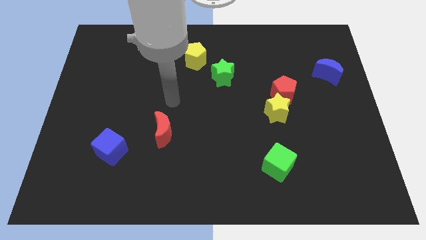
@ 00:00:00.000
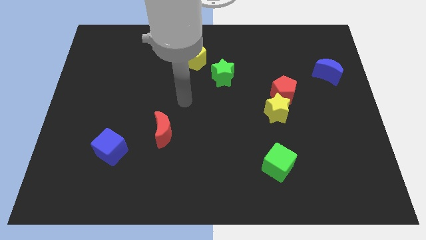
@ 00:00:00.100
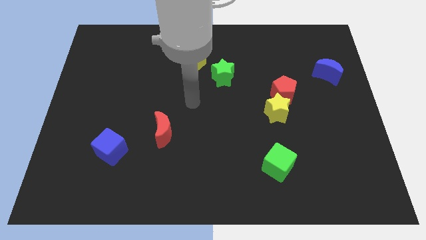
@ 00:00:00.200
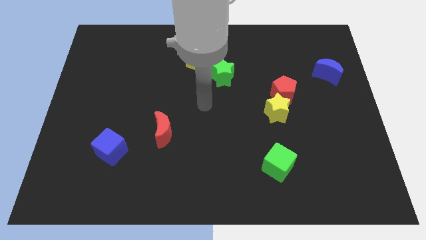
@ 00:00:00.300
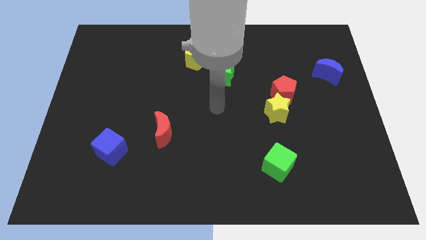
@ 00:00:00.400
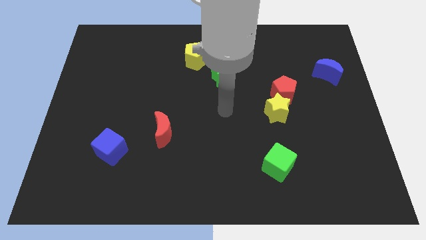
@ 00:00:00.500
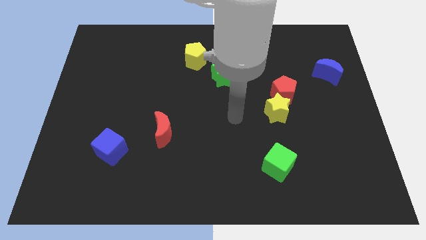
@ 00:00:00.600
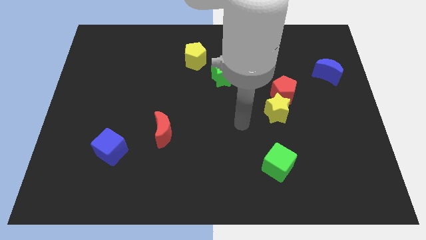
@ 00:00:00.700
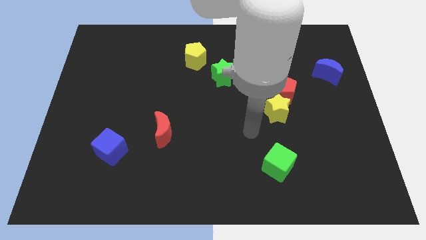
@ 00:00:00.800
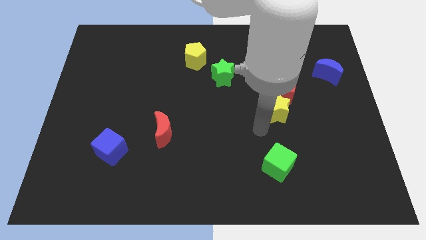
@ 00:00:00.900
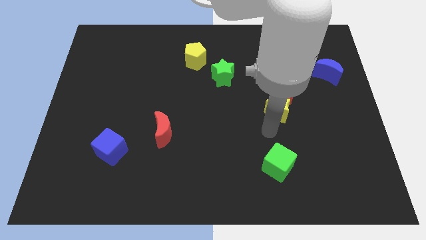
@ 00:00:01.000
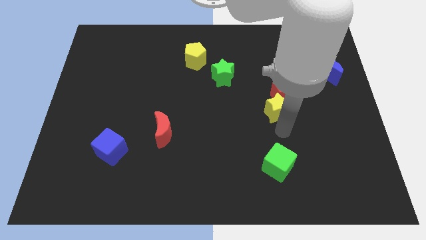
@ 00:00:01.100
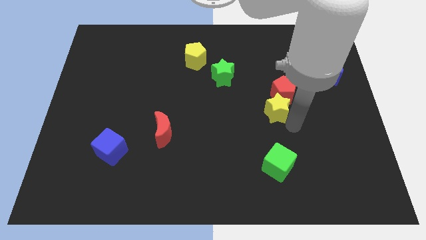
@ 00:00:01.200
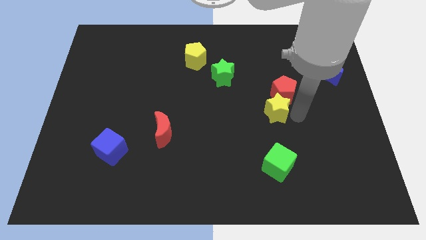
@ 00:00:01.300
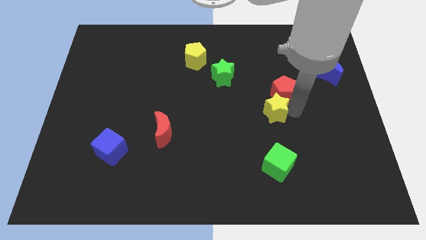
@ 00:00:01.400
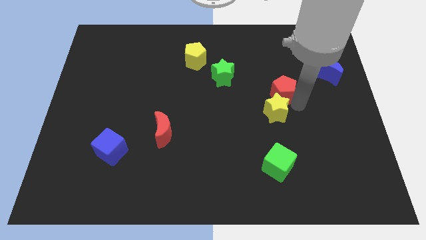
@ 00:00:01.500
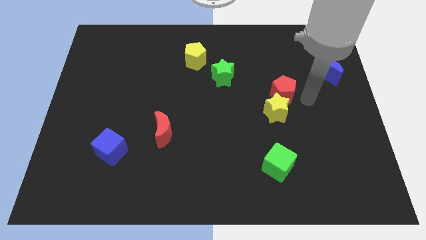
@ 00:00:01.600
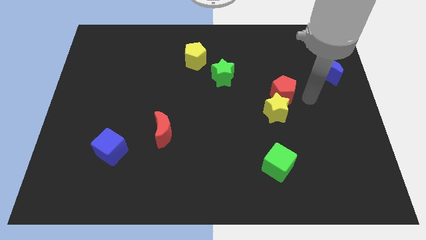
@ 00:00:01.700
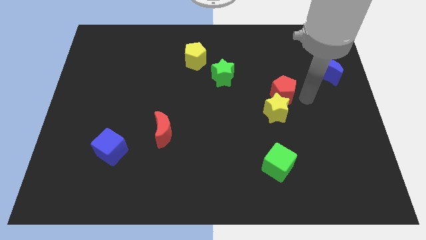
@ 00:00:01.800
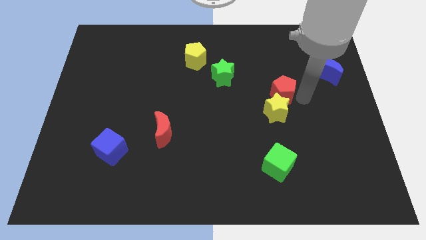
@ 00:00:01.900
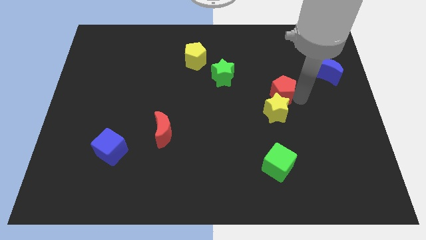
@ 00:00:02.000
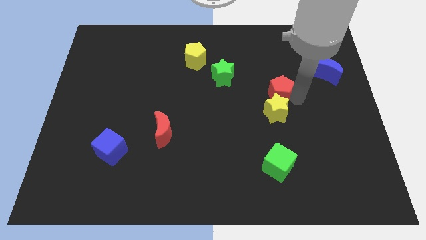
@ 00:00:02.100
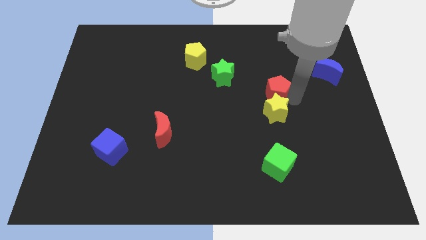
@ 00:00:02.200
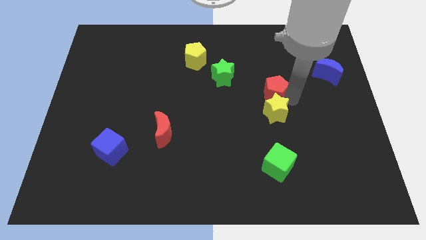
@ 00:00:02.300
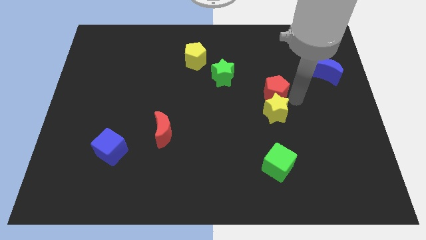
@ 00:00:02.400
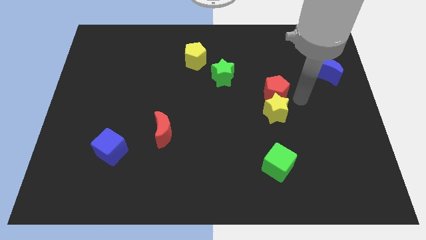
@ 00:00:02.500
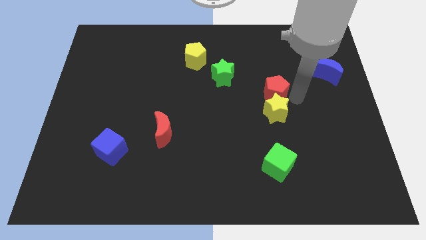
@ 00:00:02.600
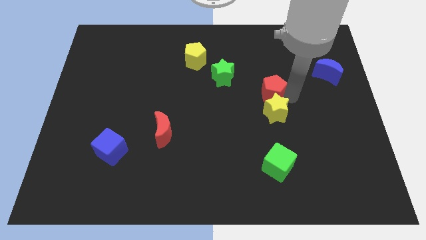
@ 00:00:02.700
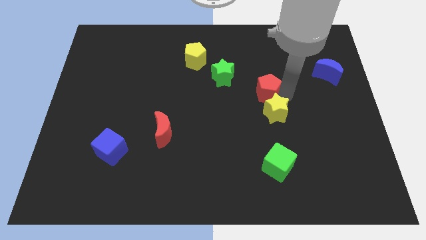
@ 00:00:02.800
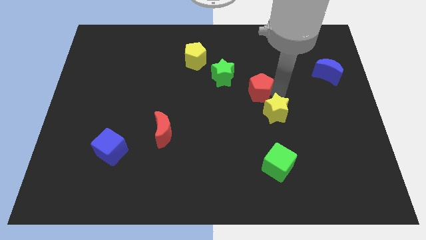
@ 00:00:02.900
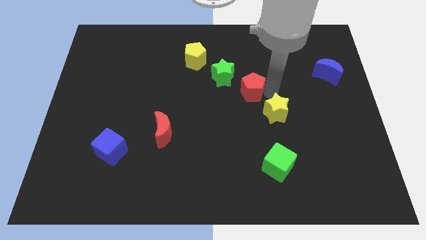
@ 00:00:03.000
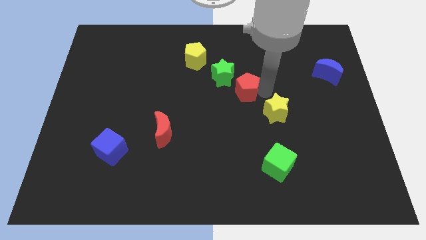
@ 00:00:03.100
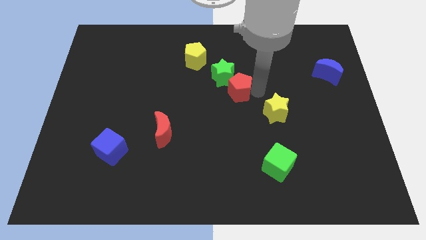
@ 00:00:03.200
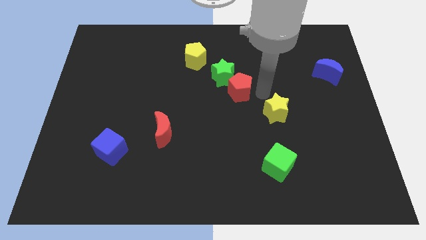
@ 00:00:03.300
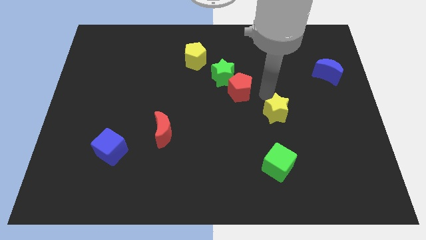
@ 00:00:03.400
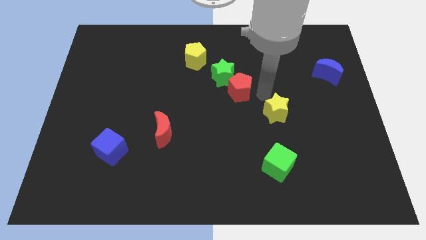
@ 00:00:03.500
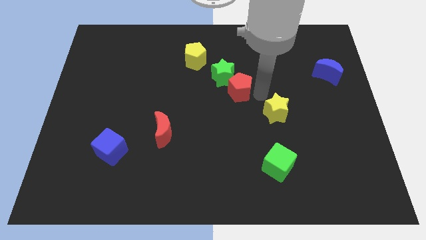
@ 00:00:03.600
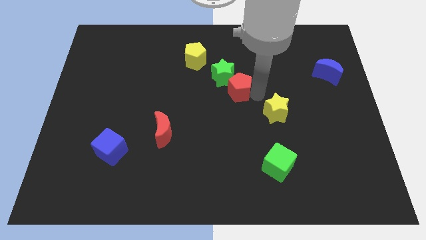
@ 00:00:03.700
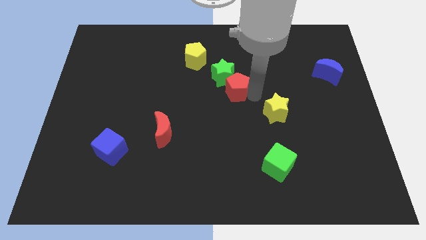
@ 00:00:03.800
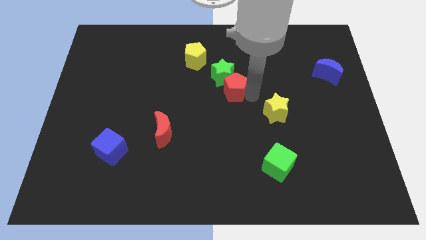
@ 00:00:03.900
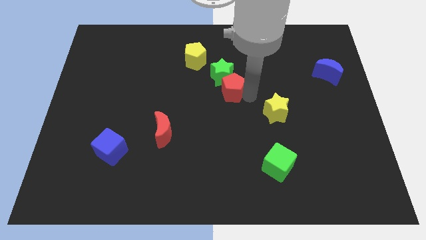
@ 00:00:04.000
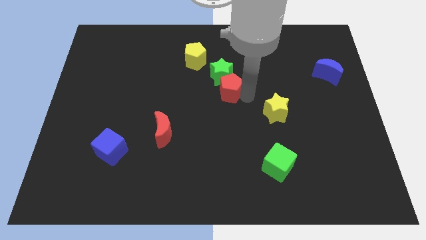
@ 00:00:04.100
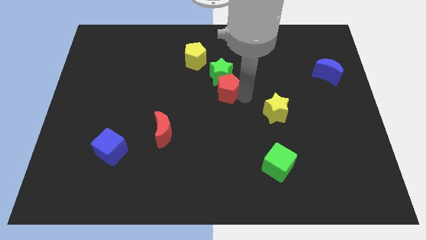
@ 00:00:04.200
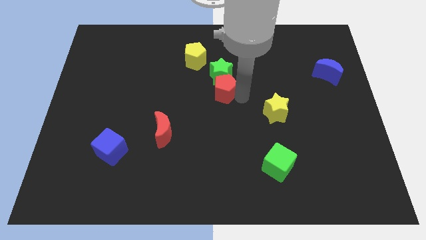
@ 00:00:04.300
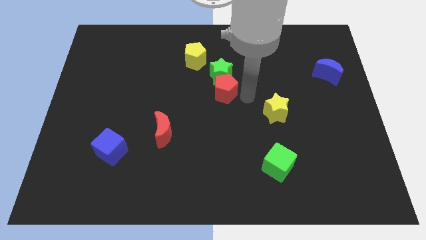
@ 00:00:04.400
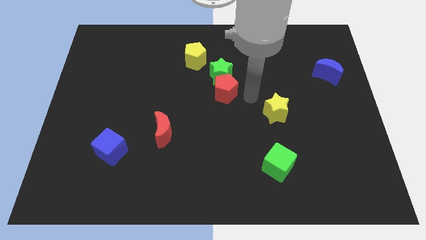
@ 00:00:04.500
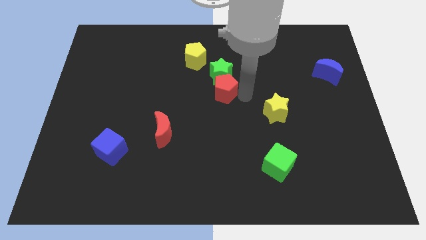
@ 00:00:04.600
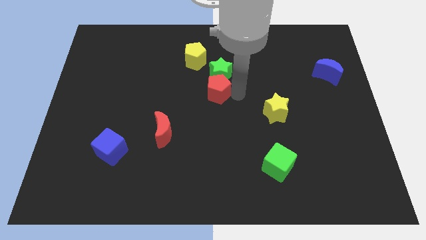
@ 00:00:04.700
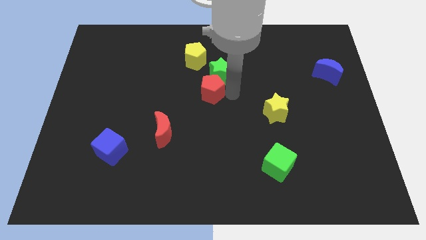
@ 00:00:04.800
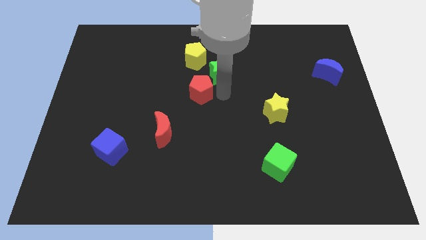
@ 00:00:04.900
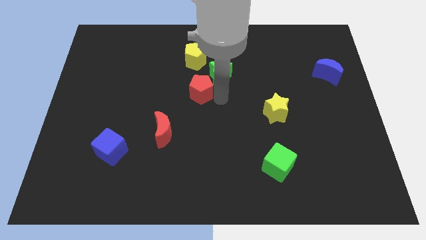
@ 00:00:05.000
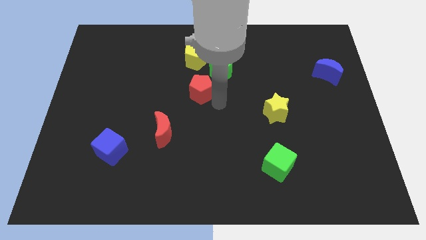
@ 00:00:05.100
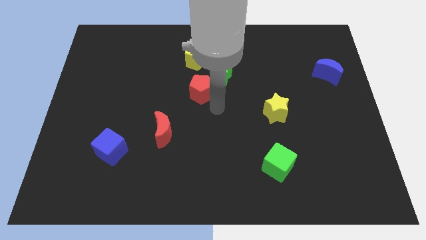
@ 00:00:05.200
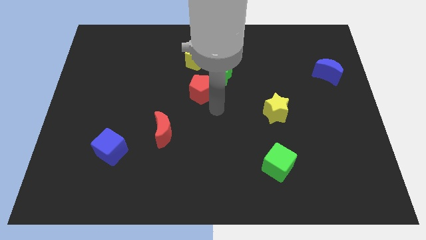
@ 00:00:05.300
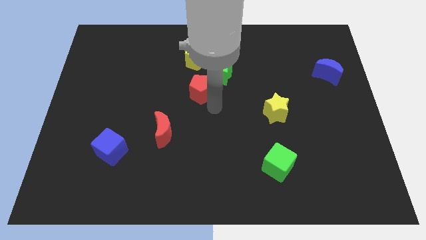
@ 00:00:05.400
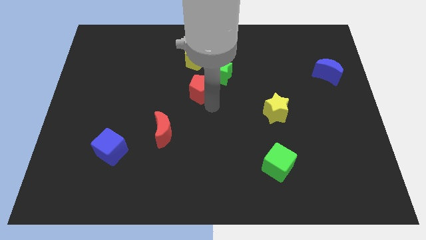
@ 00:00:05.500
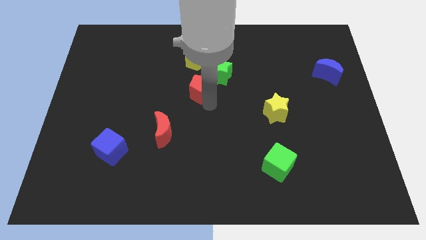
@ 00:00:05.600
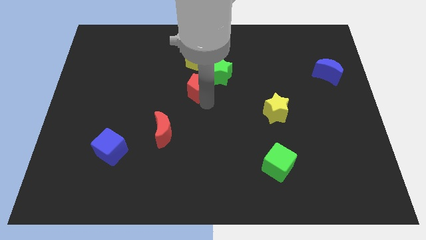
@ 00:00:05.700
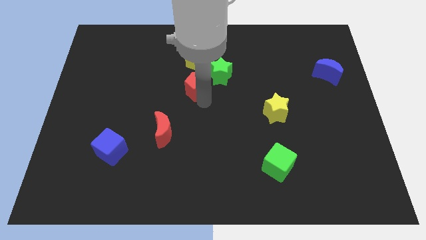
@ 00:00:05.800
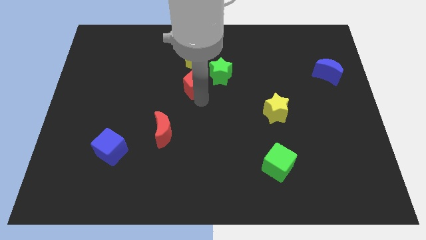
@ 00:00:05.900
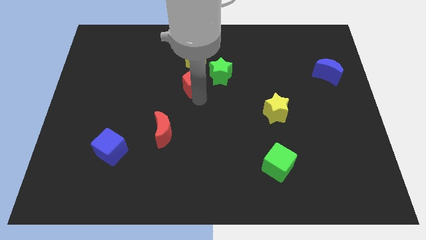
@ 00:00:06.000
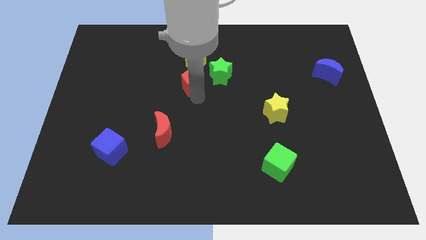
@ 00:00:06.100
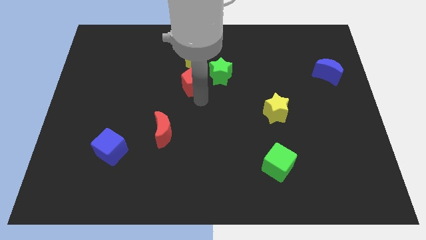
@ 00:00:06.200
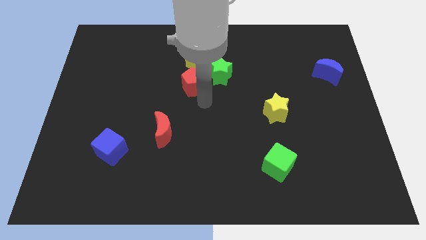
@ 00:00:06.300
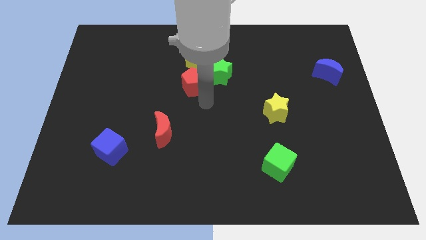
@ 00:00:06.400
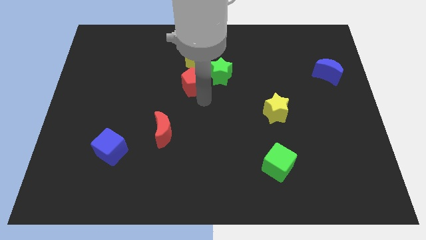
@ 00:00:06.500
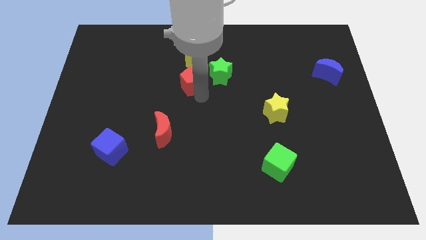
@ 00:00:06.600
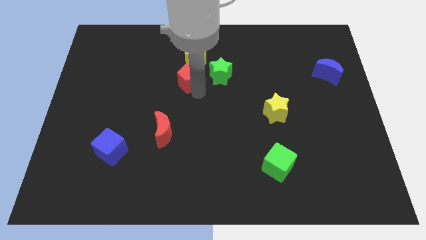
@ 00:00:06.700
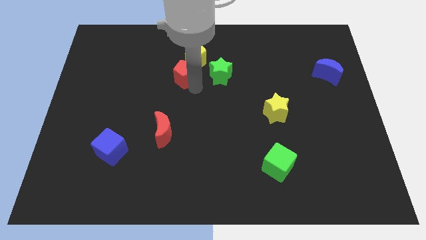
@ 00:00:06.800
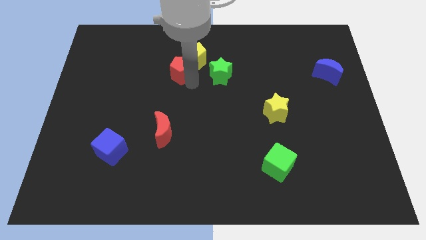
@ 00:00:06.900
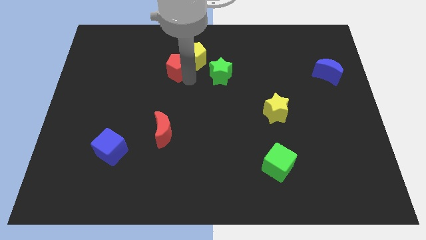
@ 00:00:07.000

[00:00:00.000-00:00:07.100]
put the red pentagon to the left of the yellow pentagon

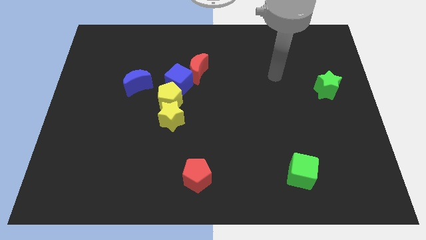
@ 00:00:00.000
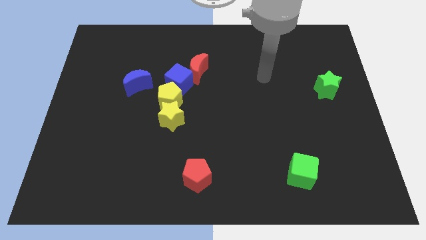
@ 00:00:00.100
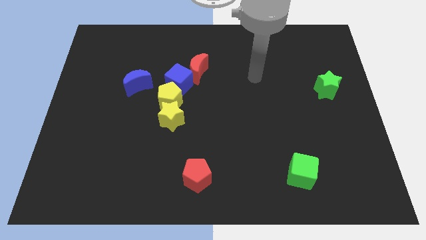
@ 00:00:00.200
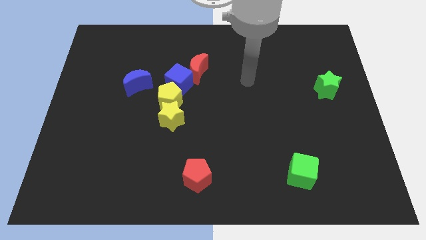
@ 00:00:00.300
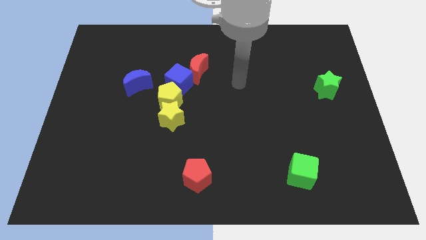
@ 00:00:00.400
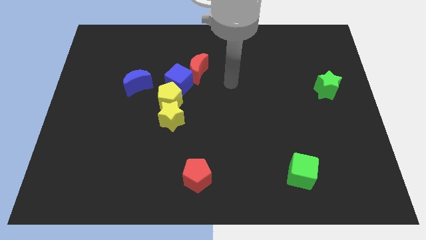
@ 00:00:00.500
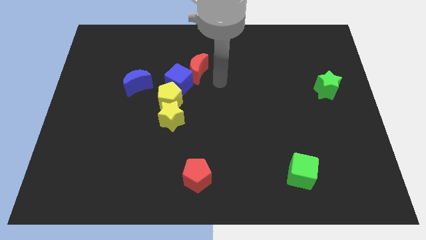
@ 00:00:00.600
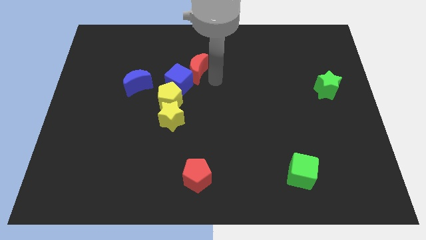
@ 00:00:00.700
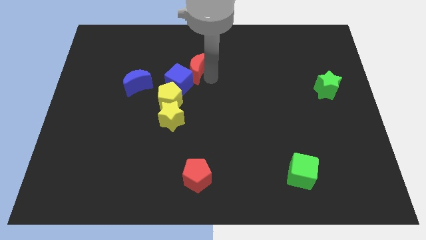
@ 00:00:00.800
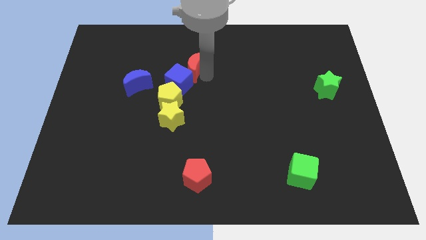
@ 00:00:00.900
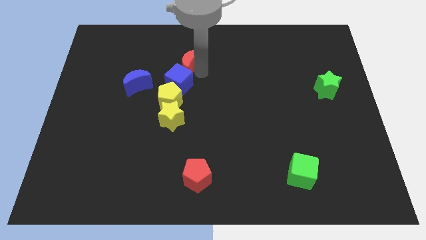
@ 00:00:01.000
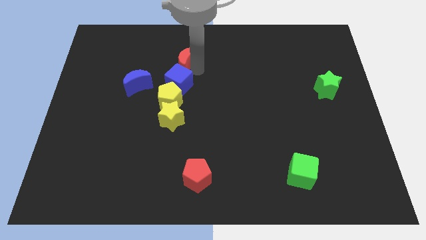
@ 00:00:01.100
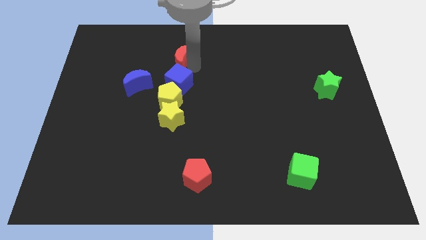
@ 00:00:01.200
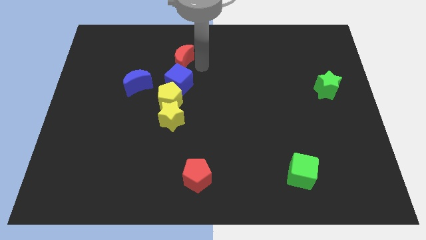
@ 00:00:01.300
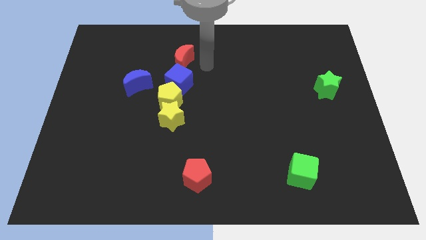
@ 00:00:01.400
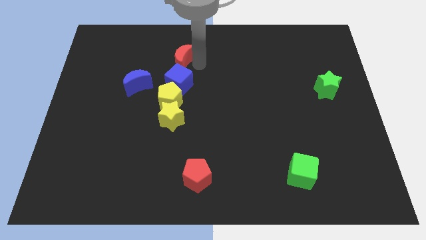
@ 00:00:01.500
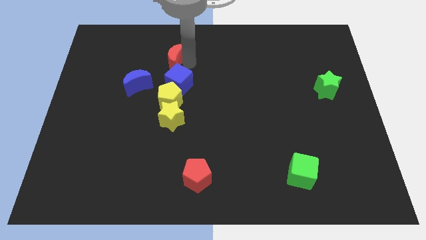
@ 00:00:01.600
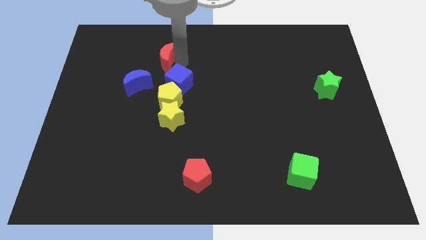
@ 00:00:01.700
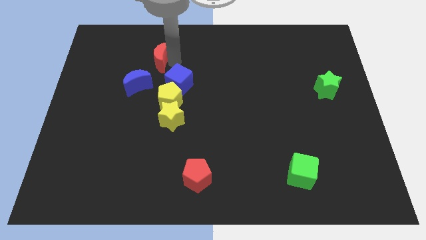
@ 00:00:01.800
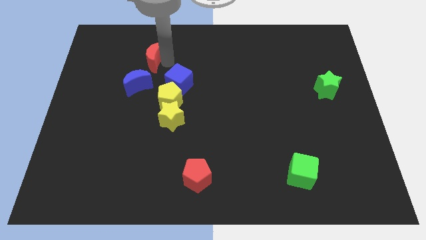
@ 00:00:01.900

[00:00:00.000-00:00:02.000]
put the red moon to the top of the blue moon
